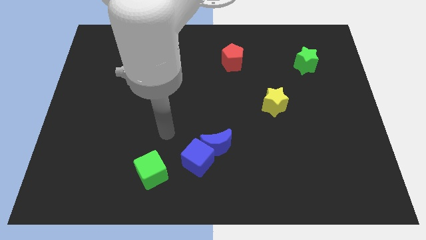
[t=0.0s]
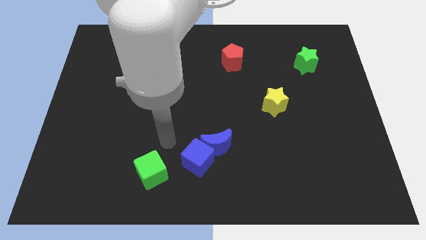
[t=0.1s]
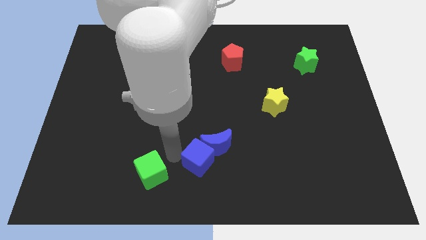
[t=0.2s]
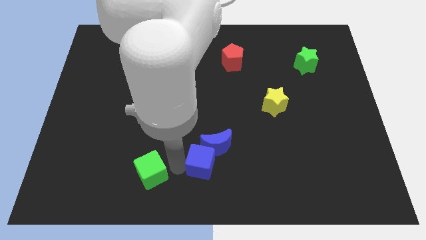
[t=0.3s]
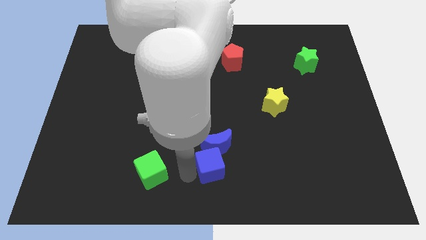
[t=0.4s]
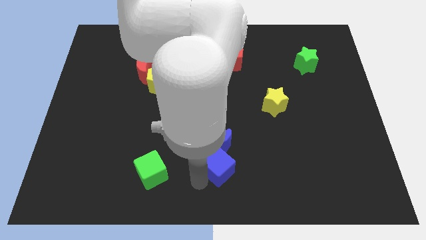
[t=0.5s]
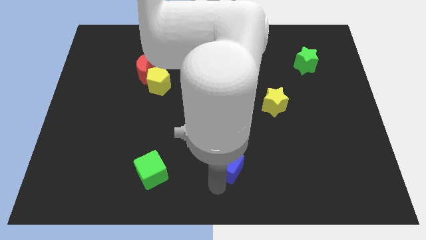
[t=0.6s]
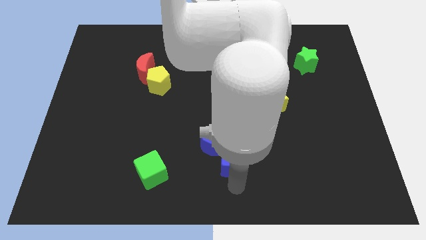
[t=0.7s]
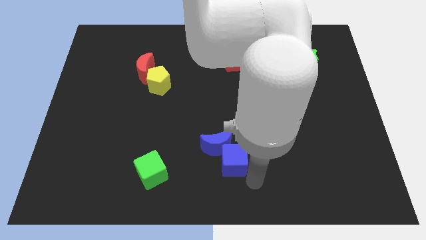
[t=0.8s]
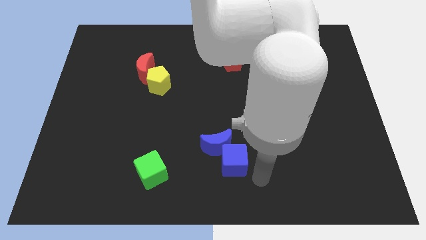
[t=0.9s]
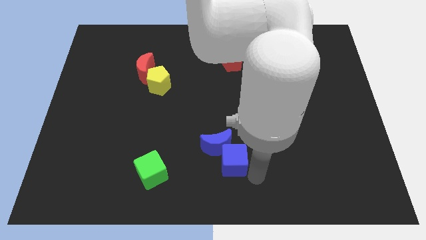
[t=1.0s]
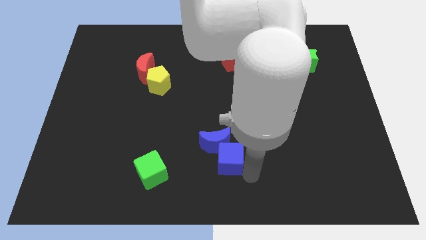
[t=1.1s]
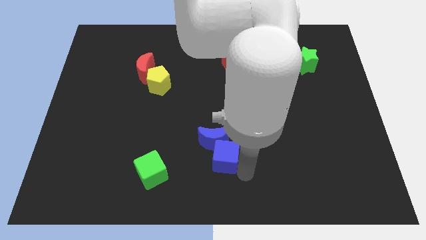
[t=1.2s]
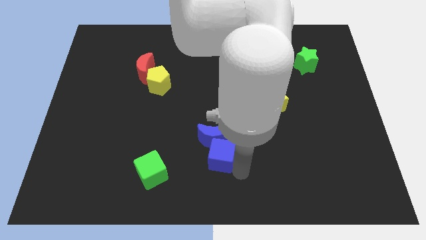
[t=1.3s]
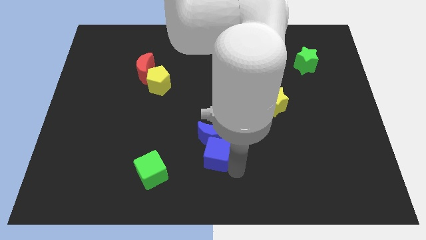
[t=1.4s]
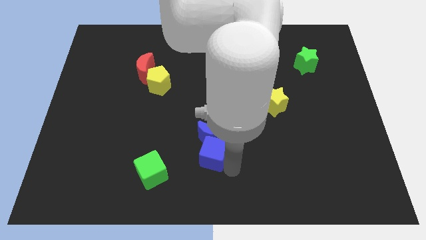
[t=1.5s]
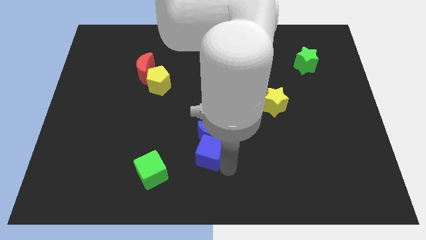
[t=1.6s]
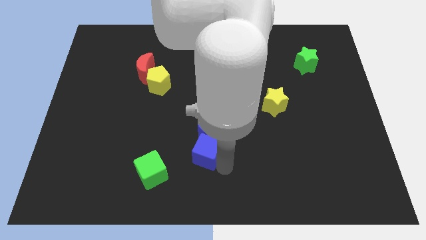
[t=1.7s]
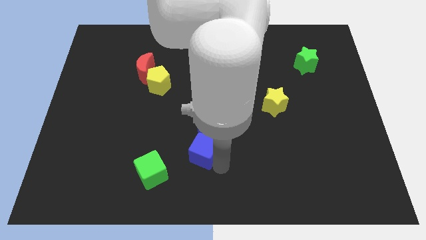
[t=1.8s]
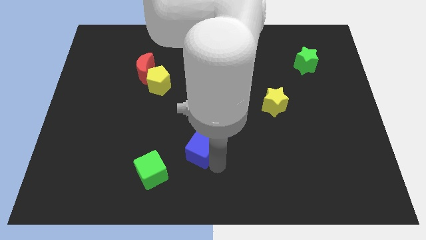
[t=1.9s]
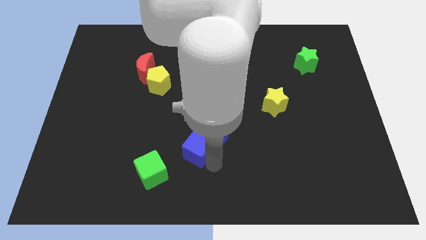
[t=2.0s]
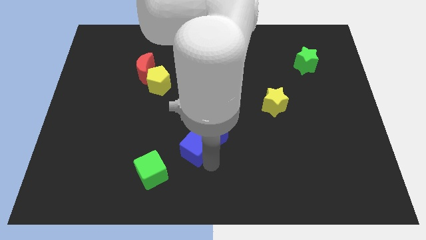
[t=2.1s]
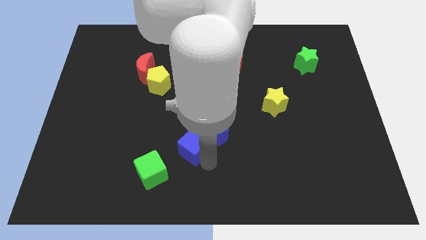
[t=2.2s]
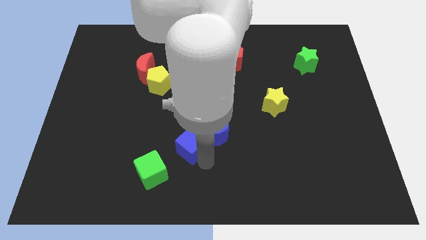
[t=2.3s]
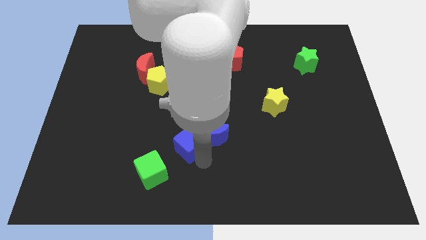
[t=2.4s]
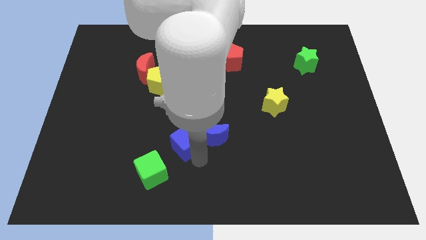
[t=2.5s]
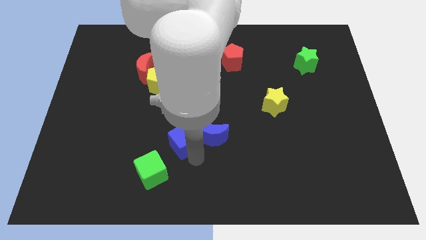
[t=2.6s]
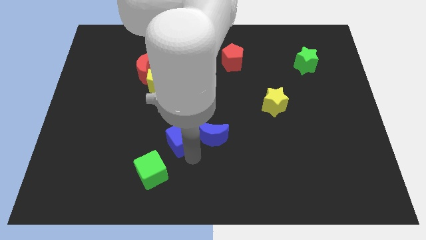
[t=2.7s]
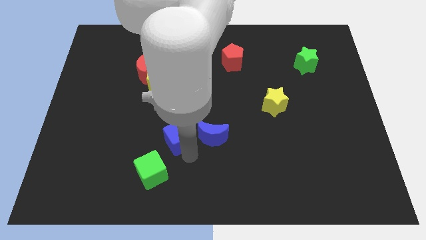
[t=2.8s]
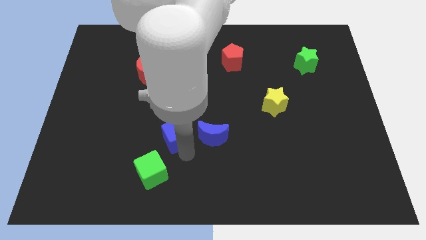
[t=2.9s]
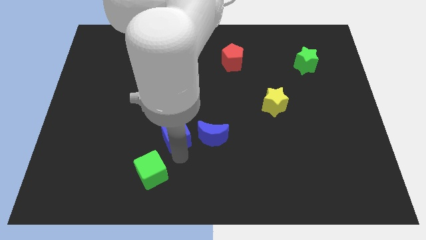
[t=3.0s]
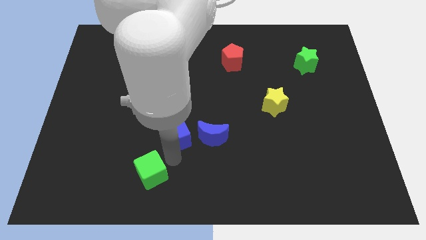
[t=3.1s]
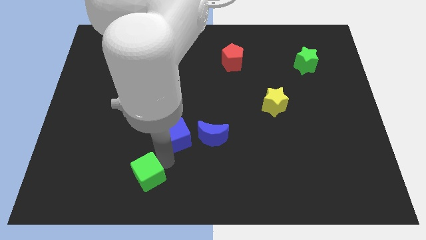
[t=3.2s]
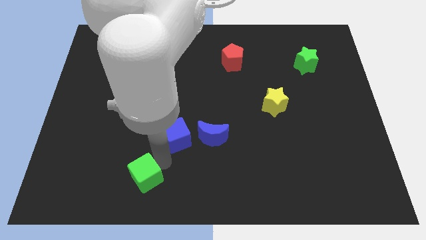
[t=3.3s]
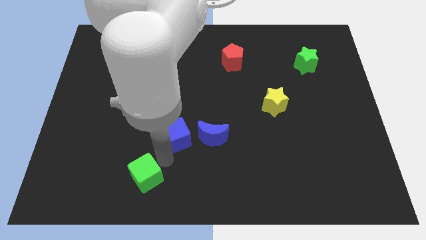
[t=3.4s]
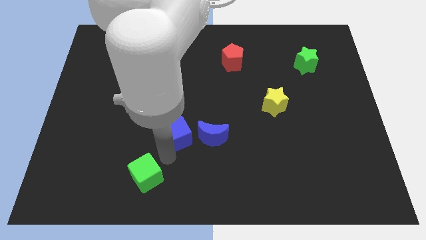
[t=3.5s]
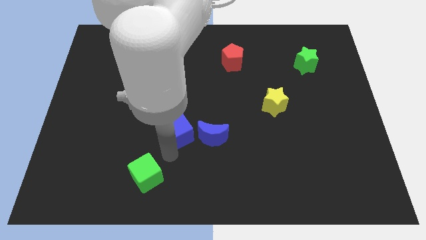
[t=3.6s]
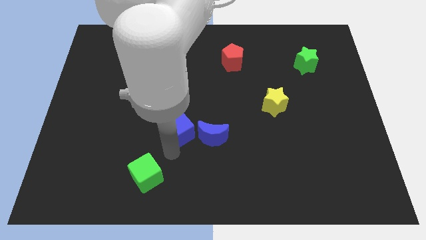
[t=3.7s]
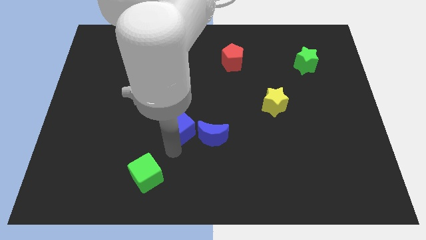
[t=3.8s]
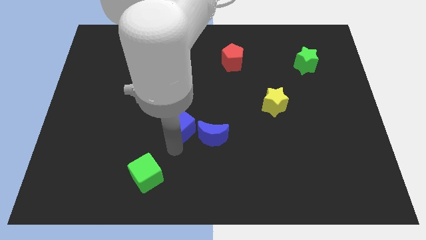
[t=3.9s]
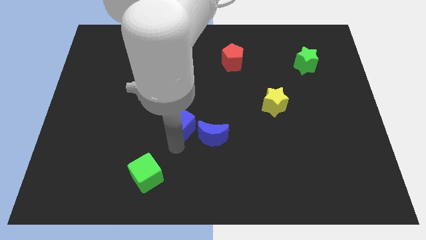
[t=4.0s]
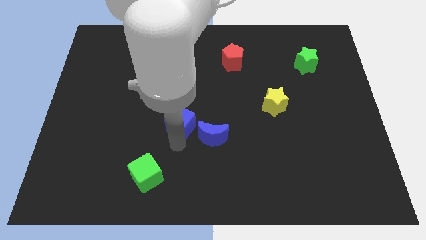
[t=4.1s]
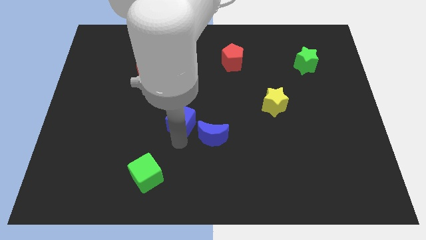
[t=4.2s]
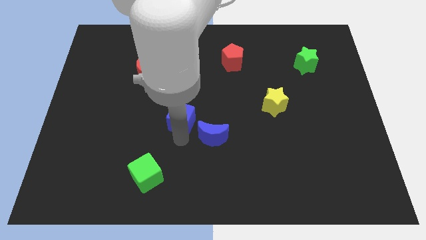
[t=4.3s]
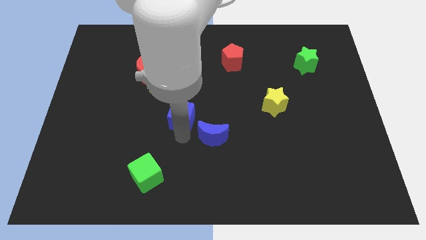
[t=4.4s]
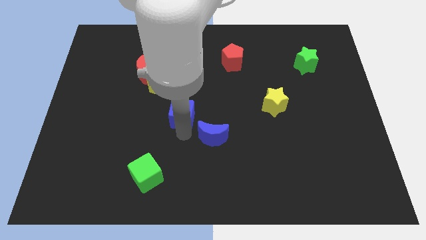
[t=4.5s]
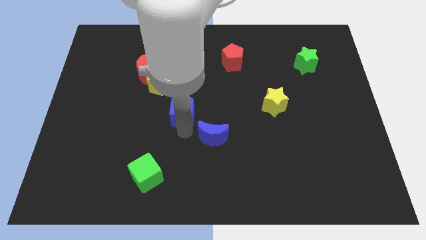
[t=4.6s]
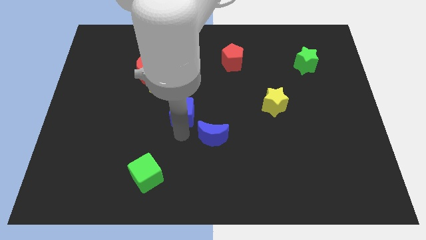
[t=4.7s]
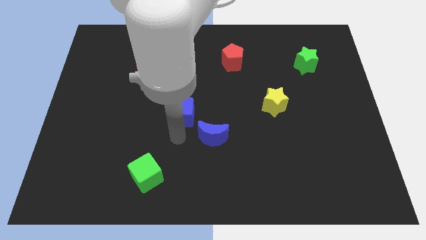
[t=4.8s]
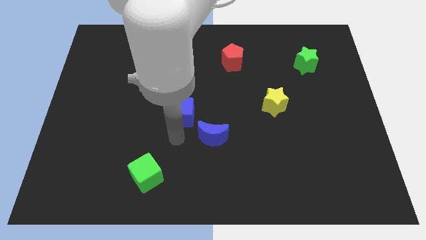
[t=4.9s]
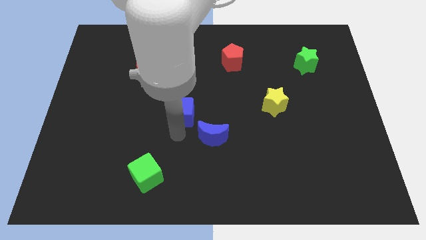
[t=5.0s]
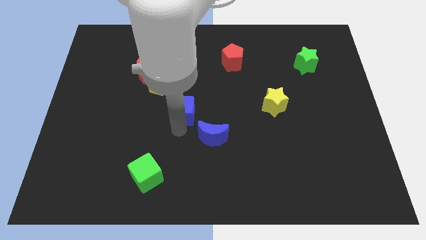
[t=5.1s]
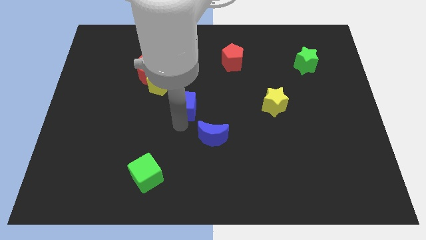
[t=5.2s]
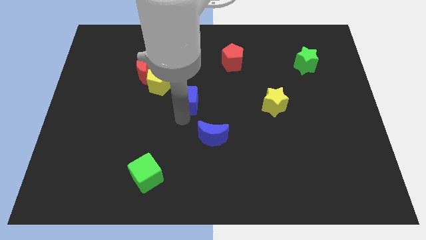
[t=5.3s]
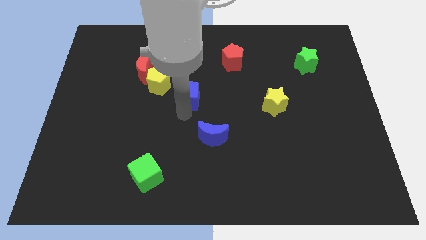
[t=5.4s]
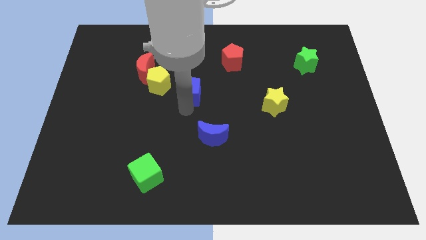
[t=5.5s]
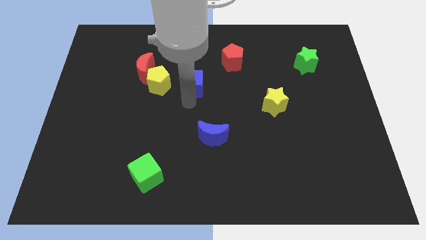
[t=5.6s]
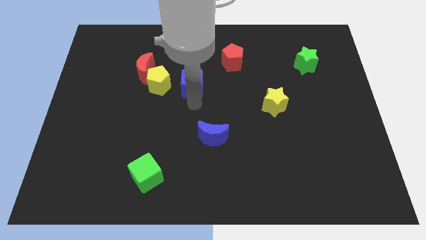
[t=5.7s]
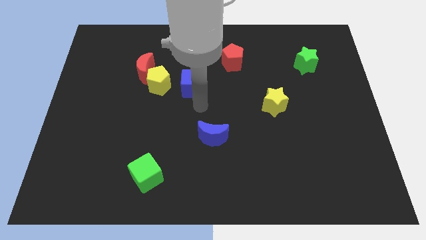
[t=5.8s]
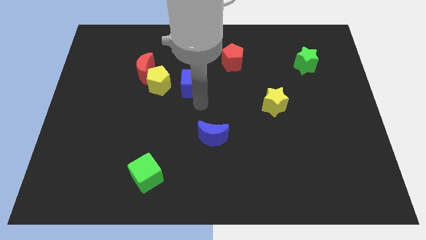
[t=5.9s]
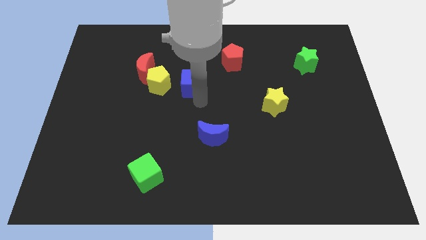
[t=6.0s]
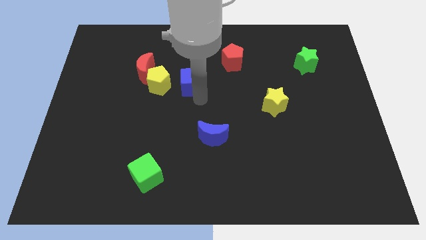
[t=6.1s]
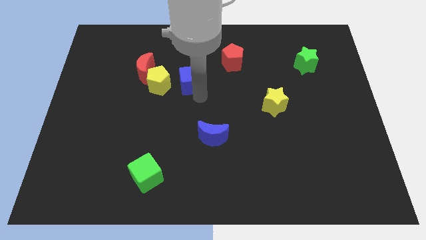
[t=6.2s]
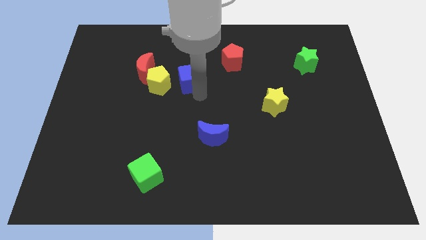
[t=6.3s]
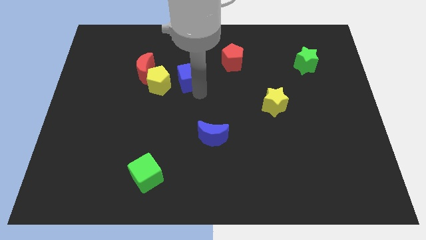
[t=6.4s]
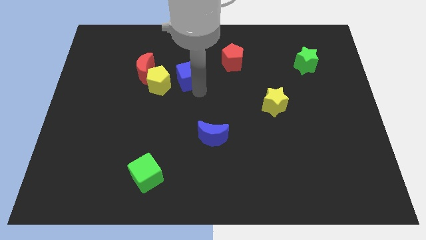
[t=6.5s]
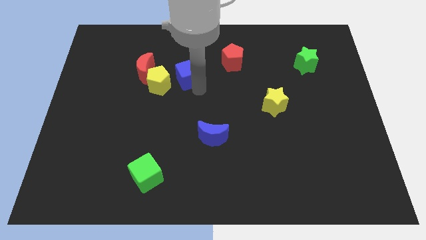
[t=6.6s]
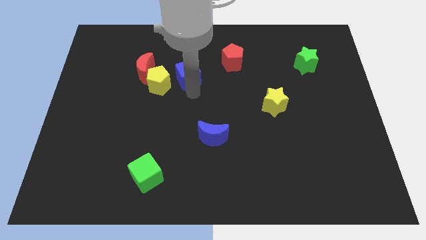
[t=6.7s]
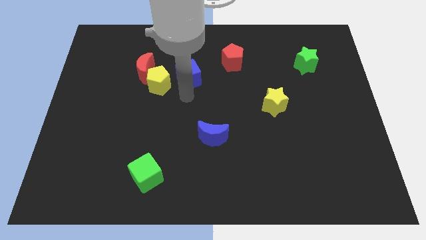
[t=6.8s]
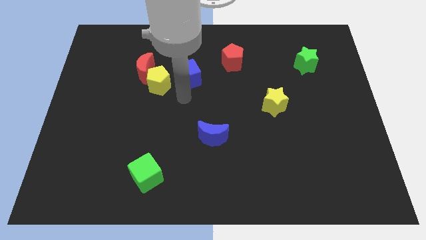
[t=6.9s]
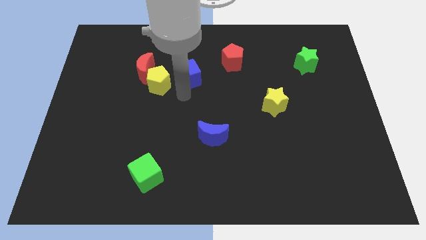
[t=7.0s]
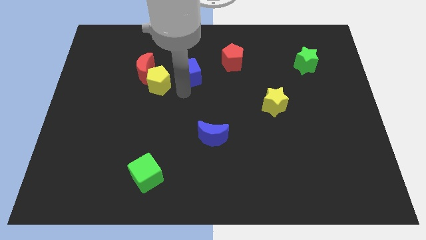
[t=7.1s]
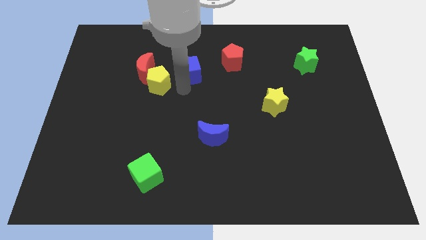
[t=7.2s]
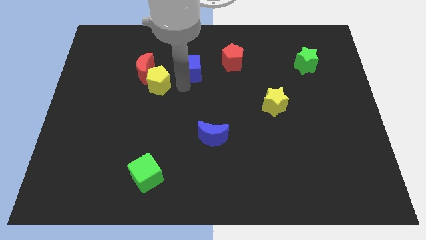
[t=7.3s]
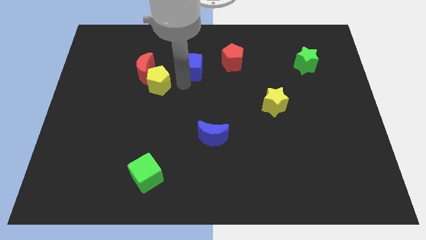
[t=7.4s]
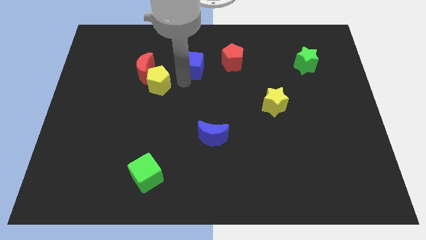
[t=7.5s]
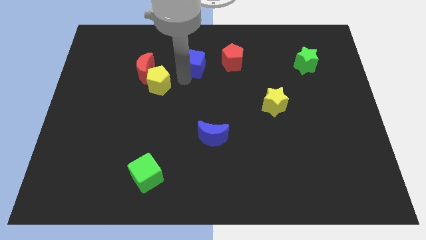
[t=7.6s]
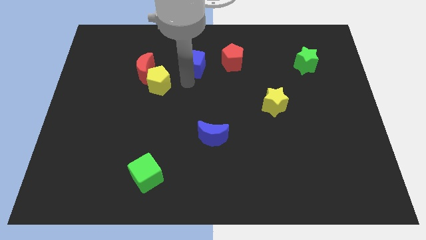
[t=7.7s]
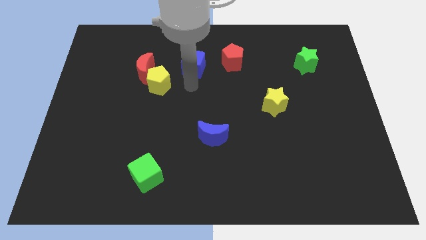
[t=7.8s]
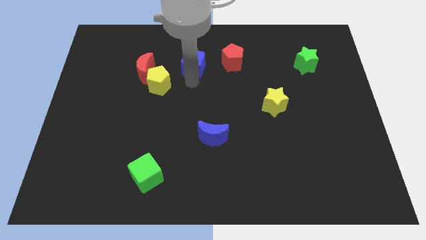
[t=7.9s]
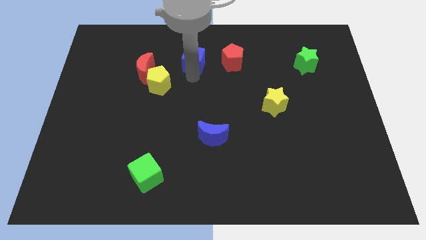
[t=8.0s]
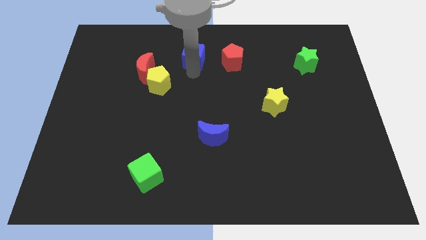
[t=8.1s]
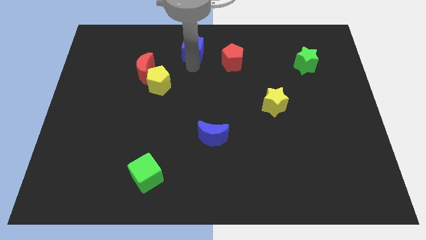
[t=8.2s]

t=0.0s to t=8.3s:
slide the blue cube to the towards your base
